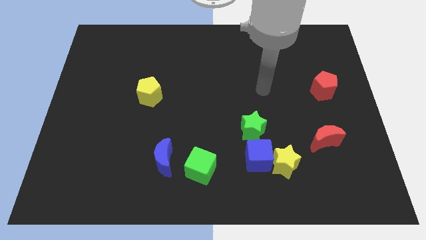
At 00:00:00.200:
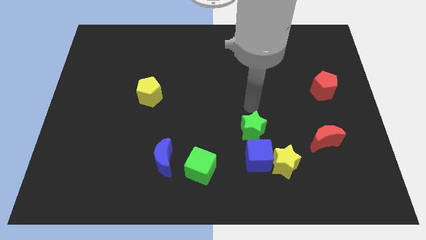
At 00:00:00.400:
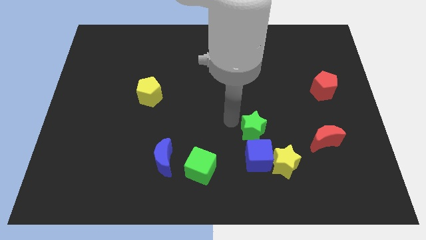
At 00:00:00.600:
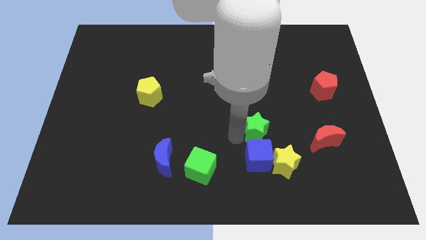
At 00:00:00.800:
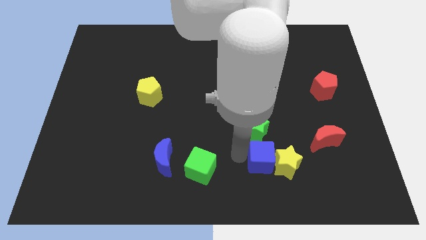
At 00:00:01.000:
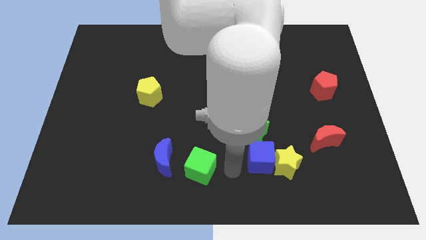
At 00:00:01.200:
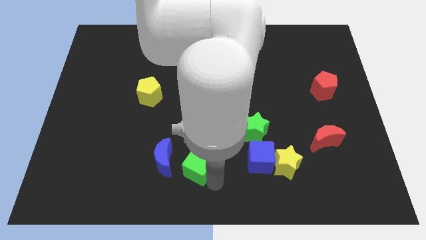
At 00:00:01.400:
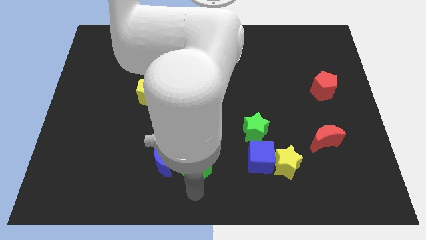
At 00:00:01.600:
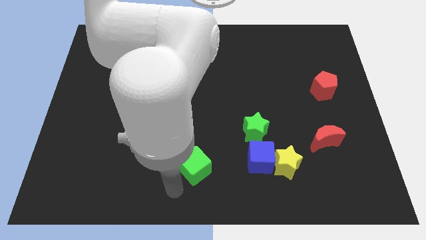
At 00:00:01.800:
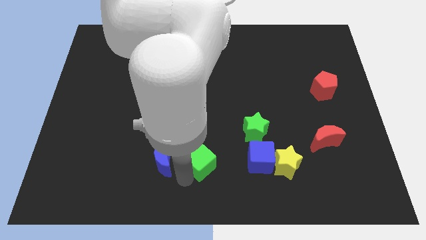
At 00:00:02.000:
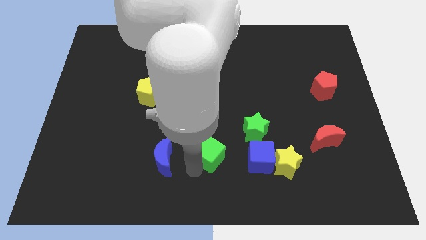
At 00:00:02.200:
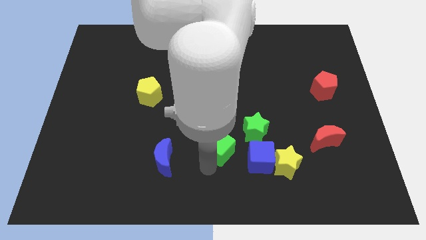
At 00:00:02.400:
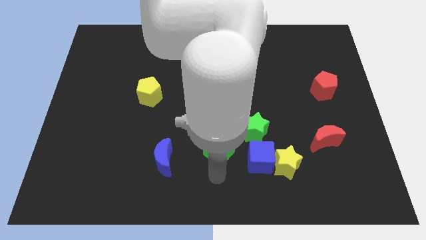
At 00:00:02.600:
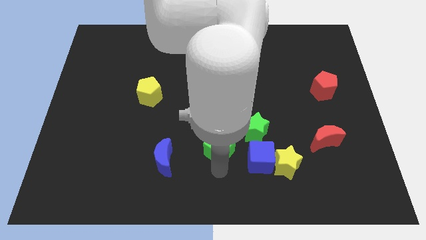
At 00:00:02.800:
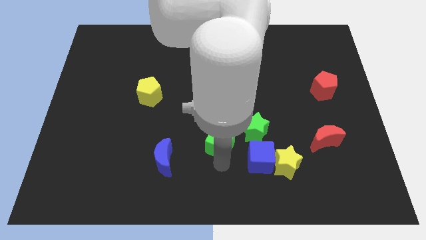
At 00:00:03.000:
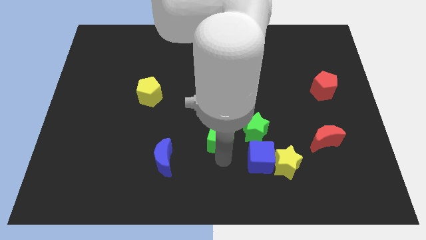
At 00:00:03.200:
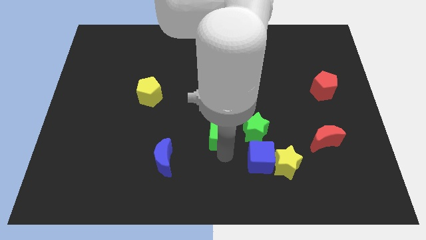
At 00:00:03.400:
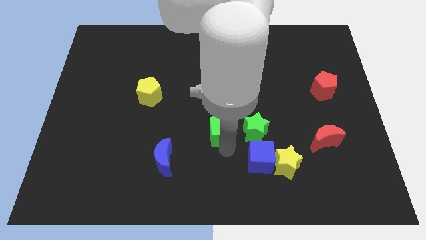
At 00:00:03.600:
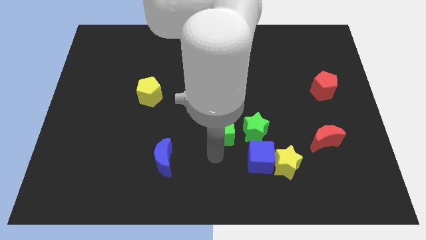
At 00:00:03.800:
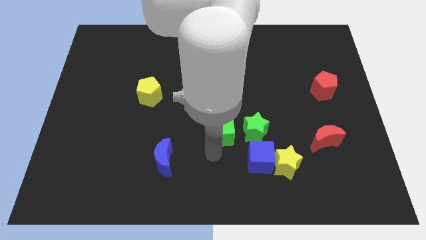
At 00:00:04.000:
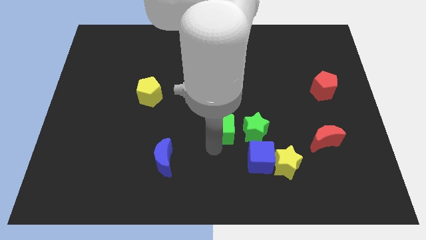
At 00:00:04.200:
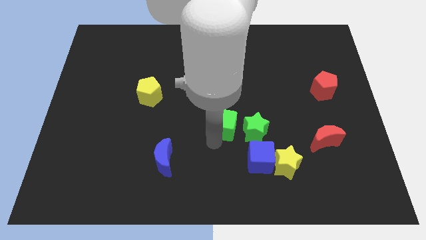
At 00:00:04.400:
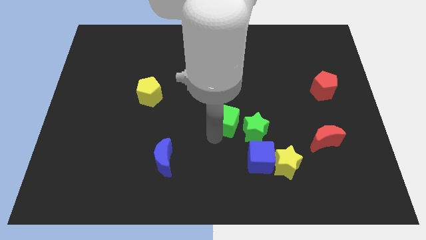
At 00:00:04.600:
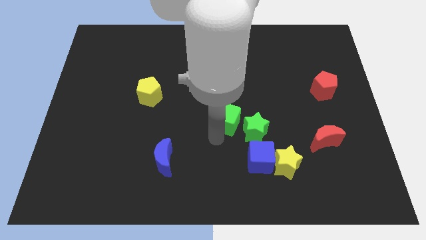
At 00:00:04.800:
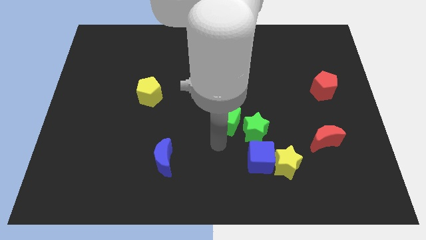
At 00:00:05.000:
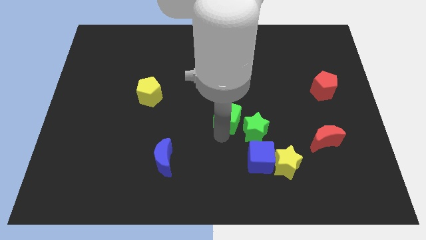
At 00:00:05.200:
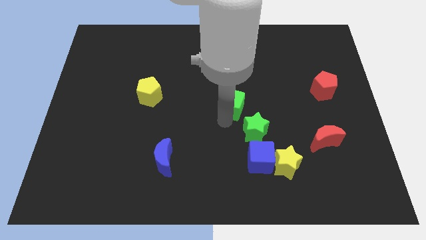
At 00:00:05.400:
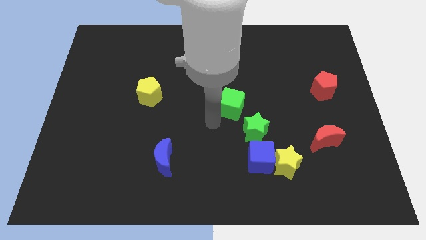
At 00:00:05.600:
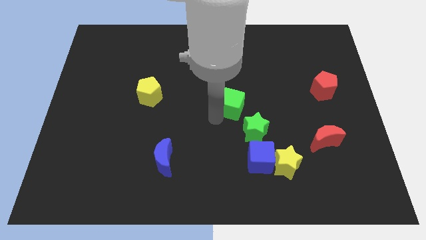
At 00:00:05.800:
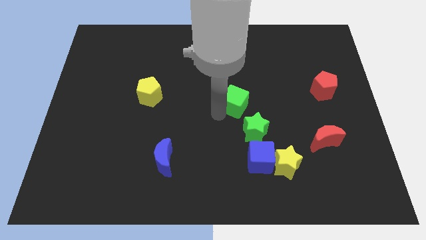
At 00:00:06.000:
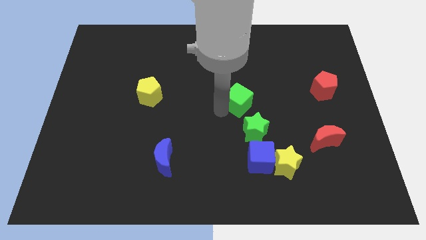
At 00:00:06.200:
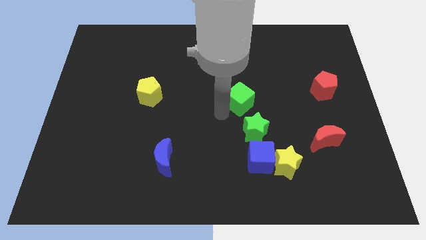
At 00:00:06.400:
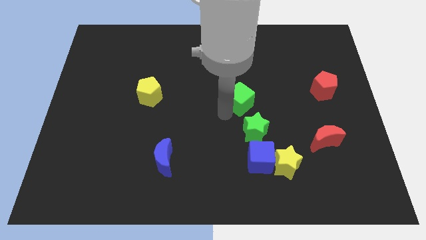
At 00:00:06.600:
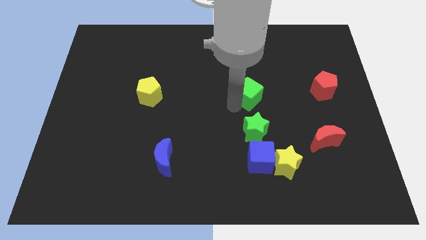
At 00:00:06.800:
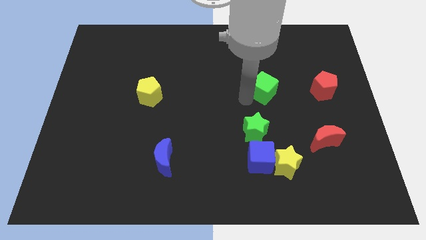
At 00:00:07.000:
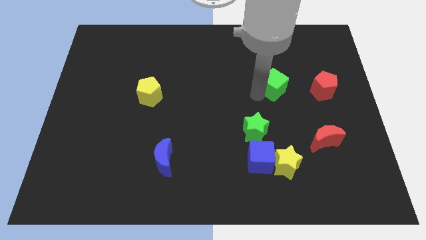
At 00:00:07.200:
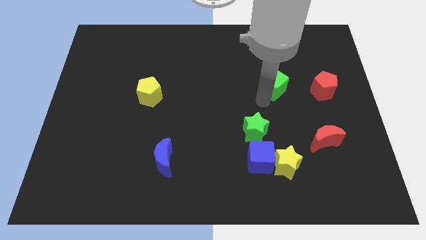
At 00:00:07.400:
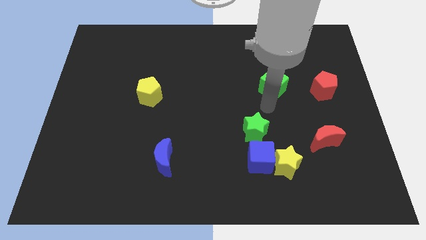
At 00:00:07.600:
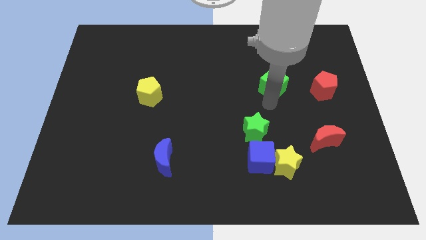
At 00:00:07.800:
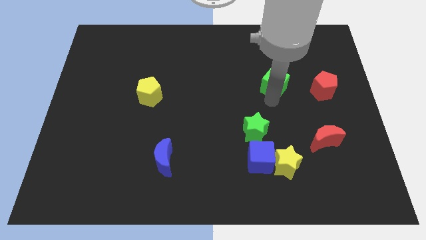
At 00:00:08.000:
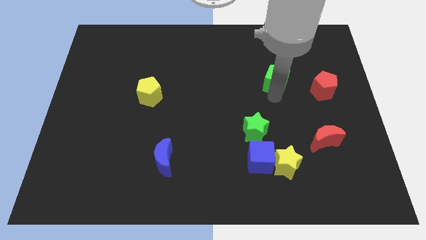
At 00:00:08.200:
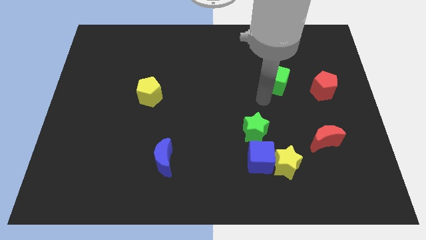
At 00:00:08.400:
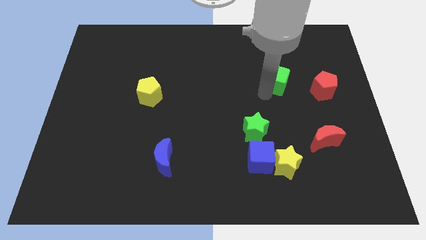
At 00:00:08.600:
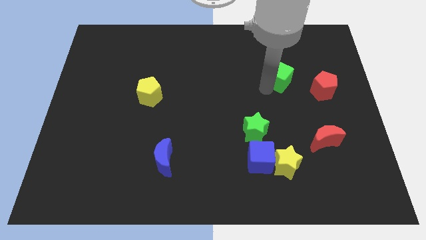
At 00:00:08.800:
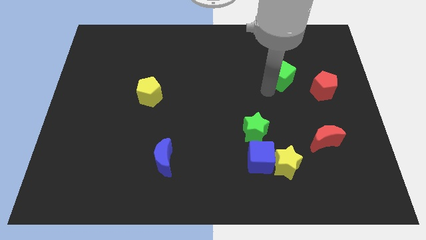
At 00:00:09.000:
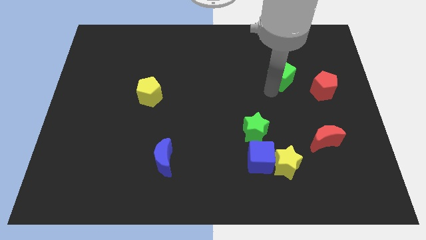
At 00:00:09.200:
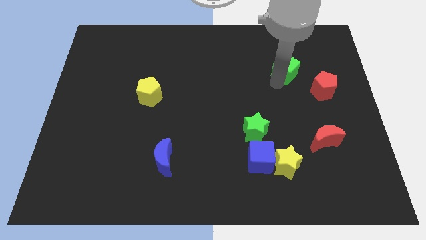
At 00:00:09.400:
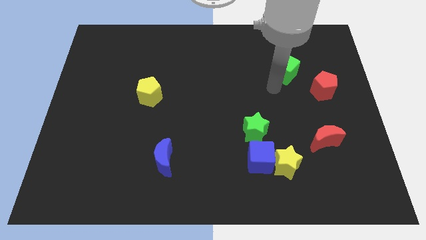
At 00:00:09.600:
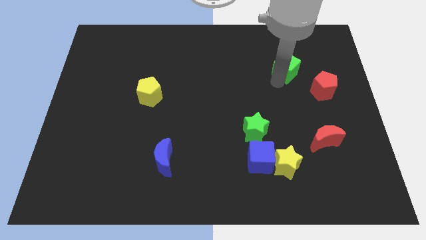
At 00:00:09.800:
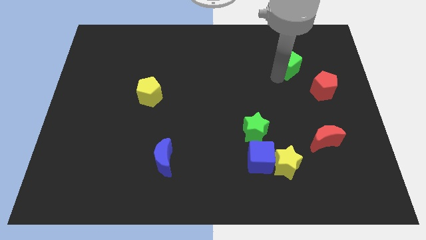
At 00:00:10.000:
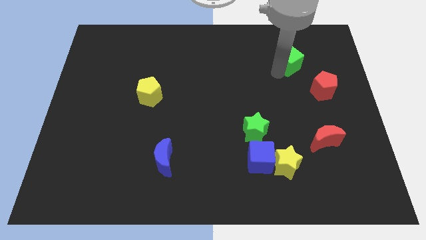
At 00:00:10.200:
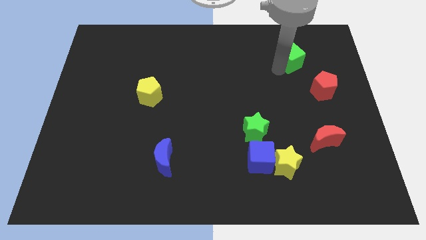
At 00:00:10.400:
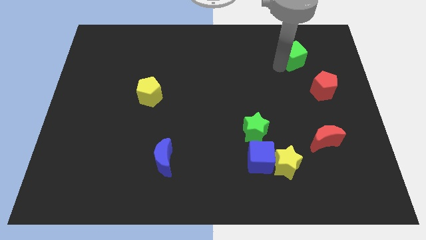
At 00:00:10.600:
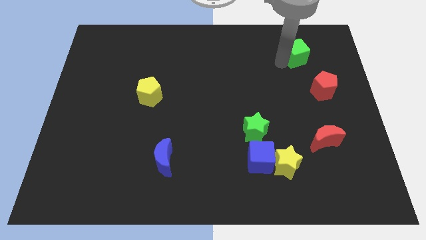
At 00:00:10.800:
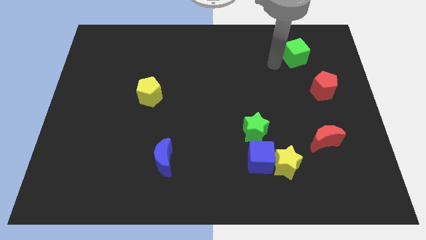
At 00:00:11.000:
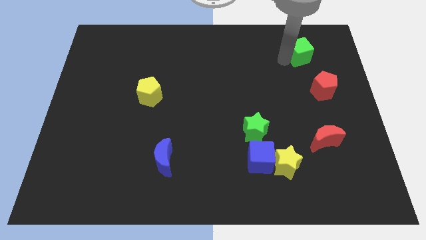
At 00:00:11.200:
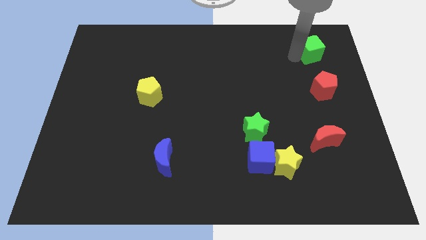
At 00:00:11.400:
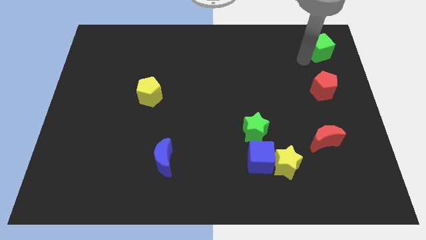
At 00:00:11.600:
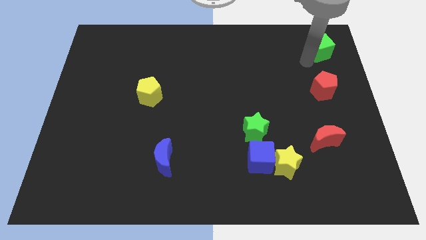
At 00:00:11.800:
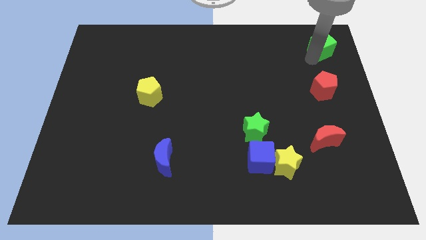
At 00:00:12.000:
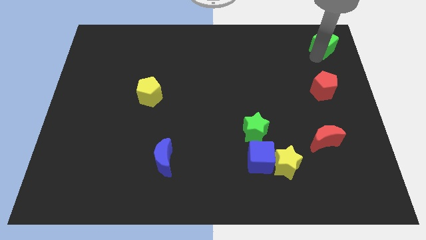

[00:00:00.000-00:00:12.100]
push the green cube to the top right
